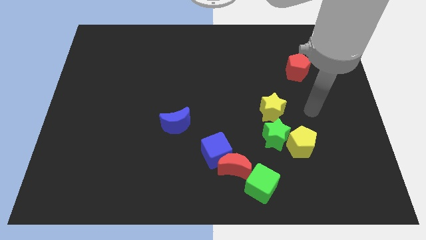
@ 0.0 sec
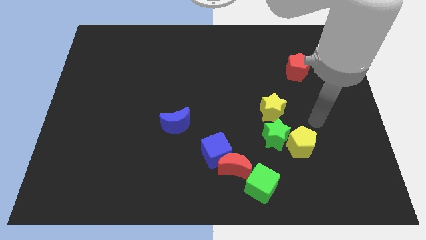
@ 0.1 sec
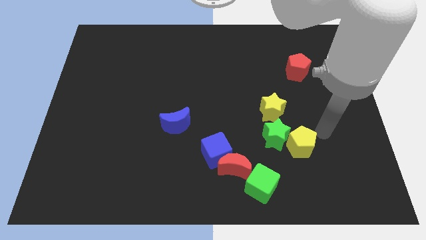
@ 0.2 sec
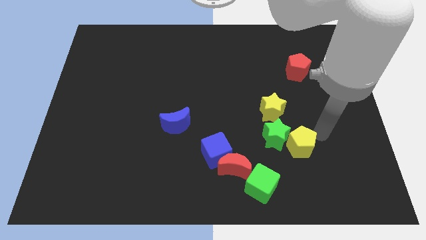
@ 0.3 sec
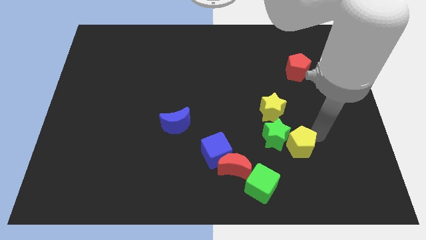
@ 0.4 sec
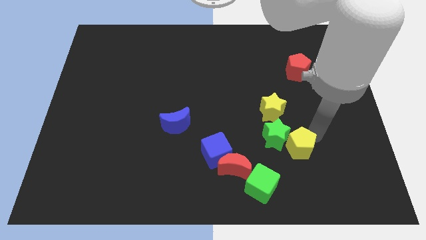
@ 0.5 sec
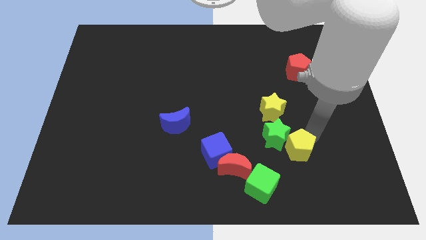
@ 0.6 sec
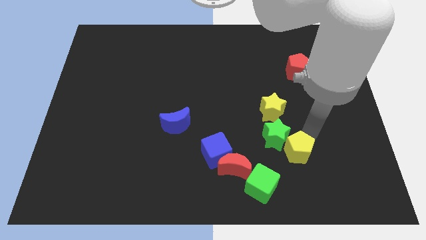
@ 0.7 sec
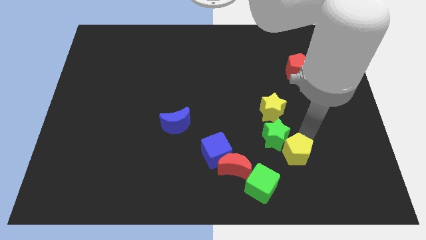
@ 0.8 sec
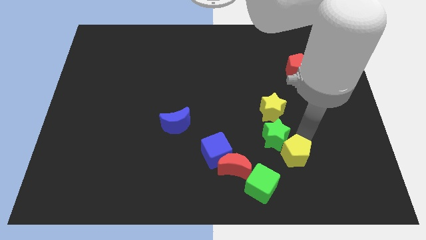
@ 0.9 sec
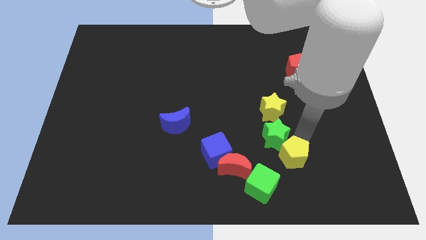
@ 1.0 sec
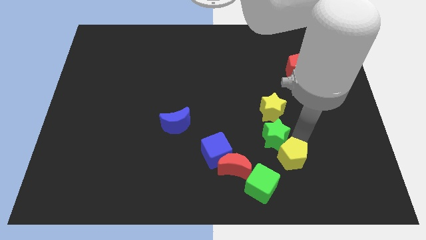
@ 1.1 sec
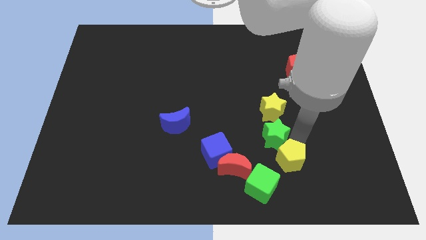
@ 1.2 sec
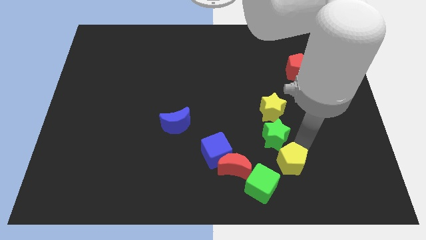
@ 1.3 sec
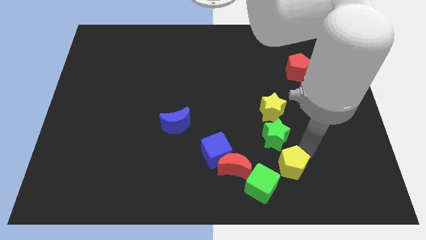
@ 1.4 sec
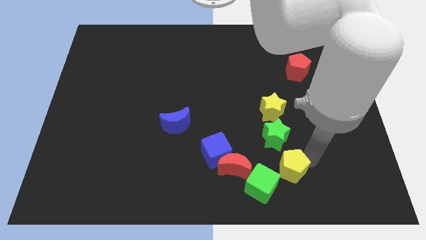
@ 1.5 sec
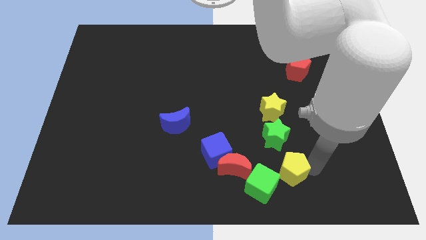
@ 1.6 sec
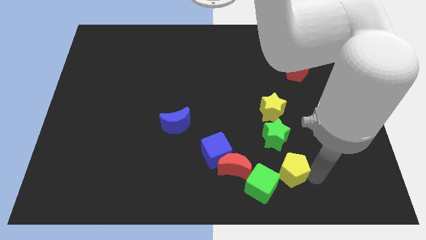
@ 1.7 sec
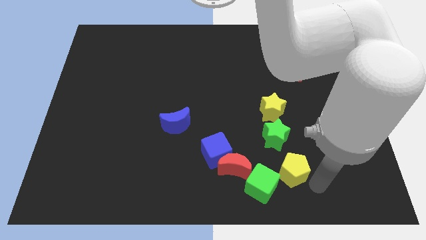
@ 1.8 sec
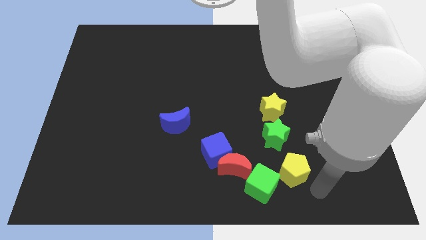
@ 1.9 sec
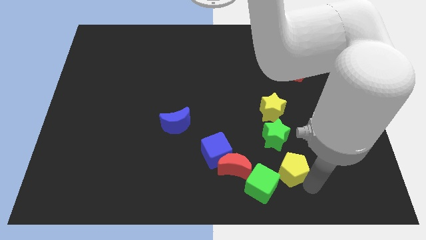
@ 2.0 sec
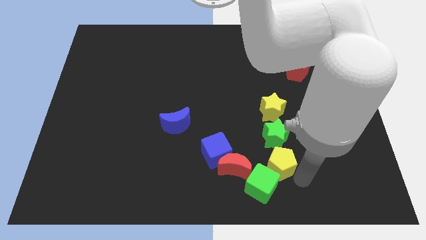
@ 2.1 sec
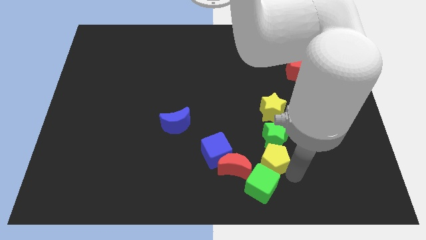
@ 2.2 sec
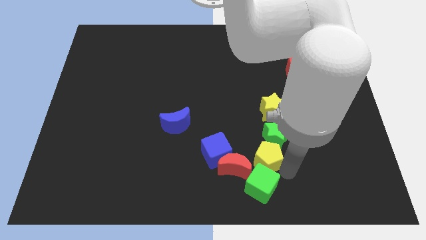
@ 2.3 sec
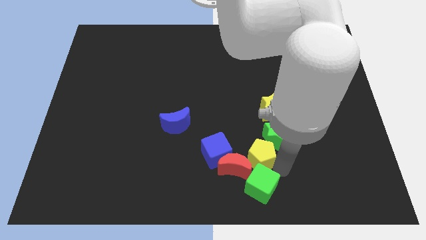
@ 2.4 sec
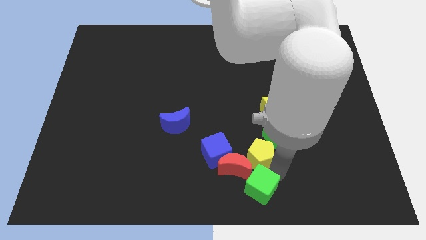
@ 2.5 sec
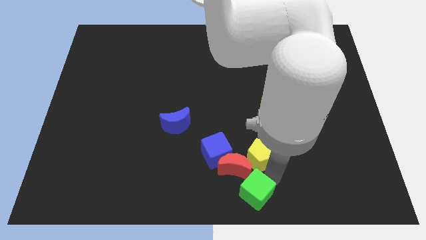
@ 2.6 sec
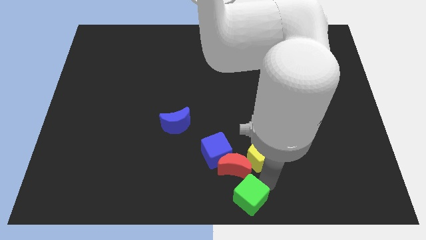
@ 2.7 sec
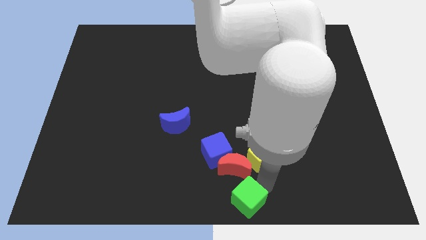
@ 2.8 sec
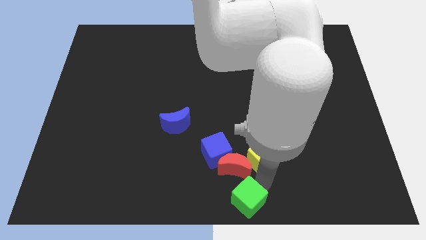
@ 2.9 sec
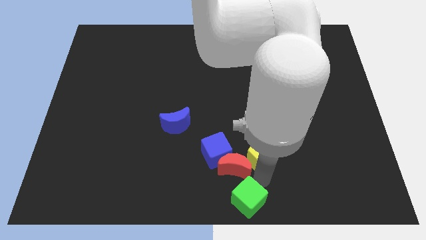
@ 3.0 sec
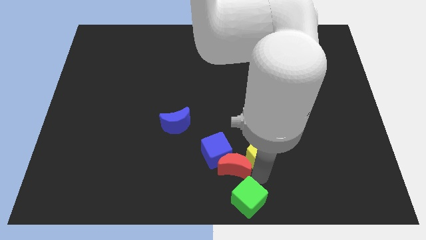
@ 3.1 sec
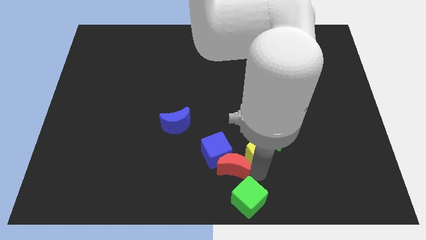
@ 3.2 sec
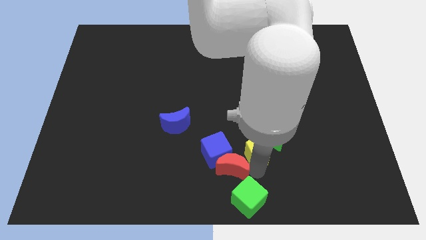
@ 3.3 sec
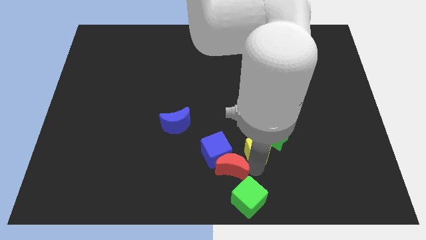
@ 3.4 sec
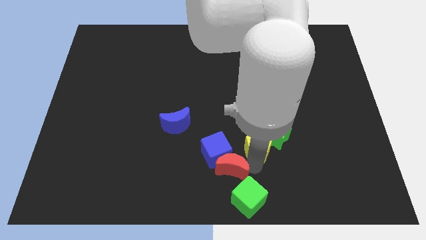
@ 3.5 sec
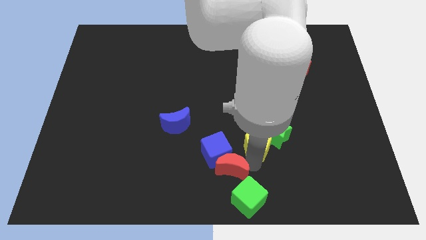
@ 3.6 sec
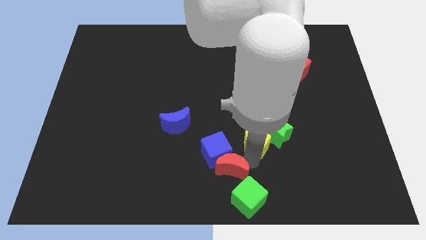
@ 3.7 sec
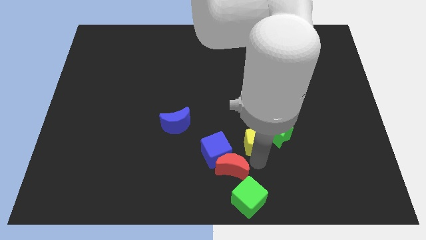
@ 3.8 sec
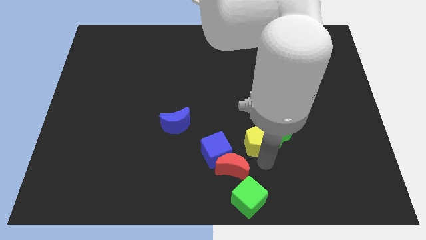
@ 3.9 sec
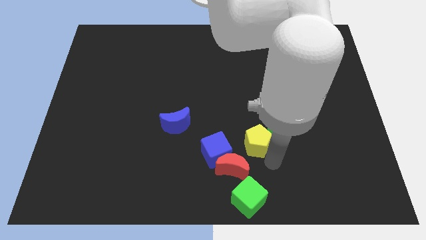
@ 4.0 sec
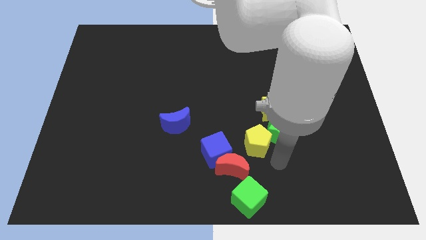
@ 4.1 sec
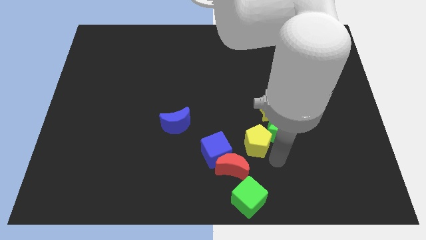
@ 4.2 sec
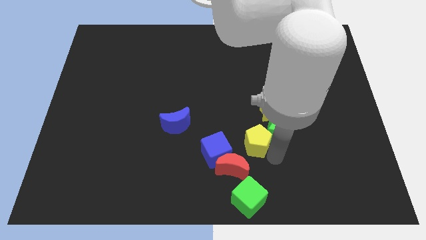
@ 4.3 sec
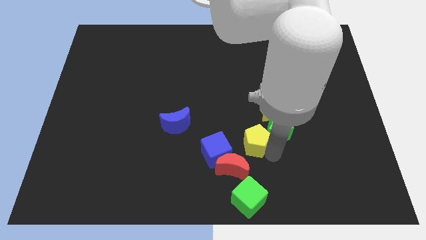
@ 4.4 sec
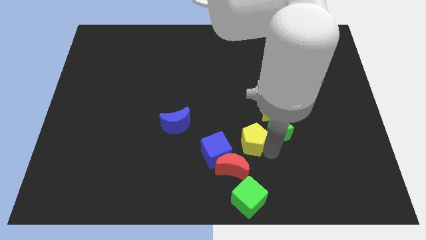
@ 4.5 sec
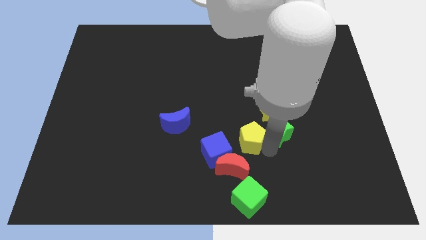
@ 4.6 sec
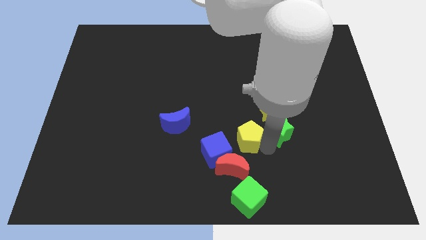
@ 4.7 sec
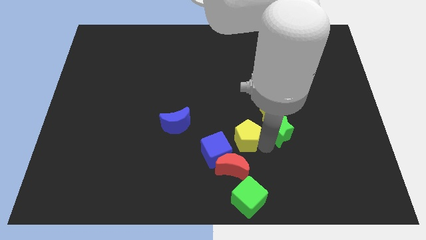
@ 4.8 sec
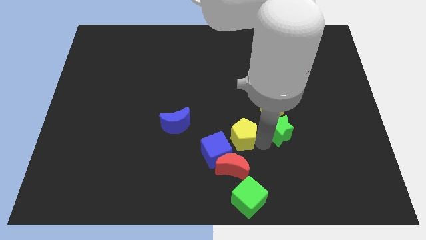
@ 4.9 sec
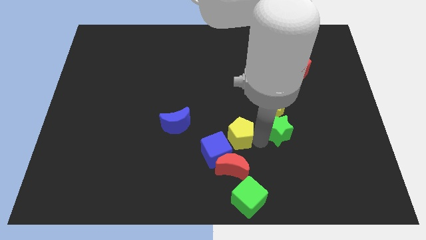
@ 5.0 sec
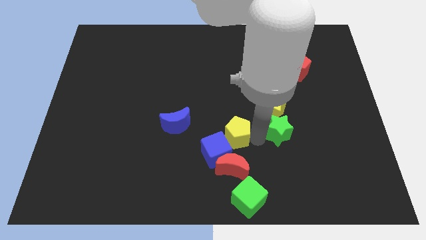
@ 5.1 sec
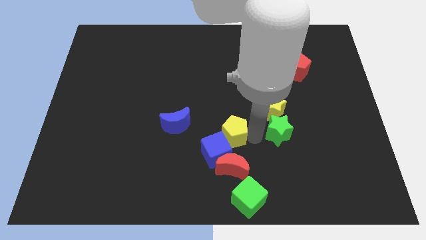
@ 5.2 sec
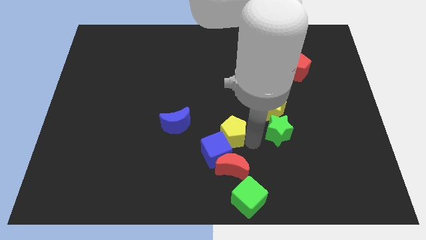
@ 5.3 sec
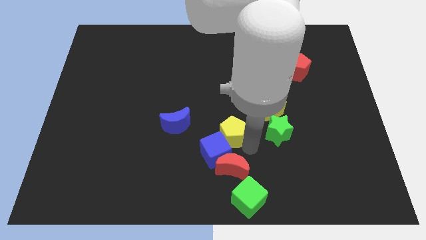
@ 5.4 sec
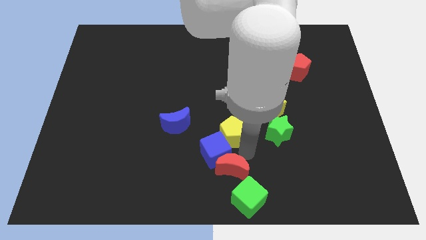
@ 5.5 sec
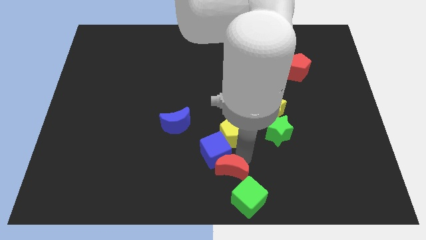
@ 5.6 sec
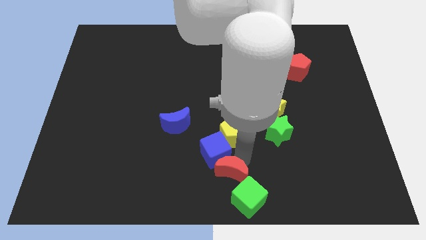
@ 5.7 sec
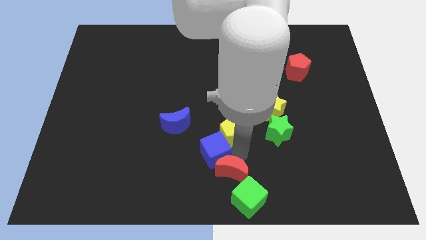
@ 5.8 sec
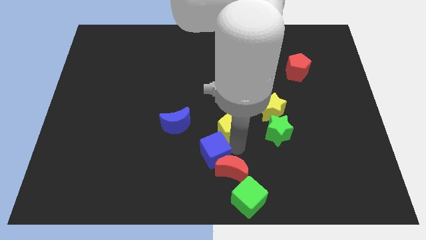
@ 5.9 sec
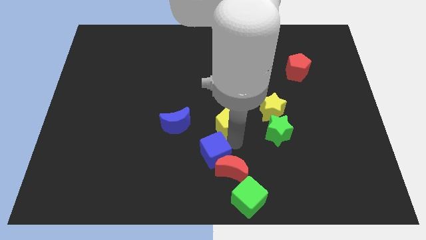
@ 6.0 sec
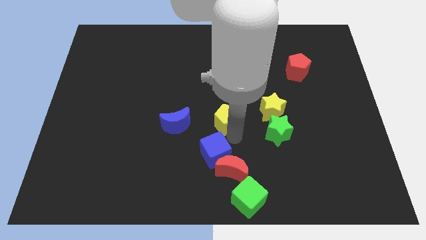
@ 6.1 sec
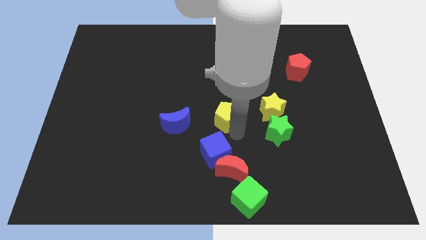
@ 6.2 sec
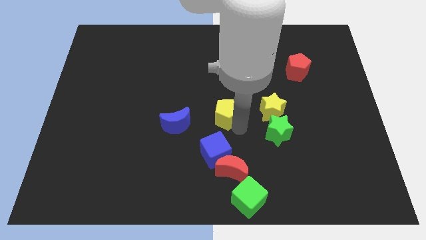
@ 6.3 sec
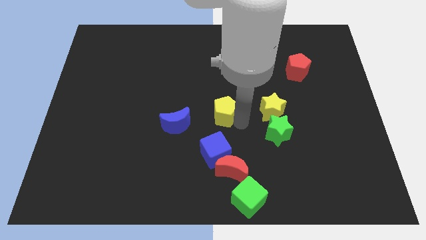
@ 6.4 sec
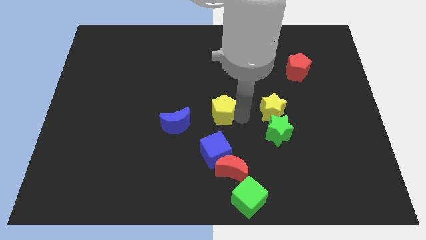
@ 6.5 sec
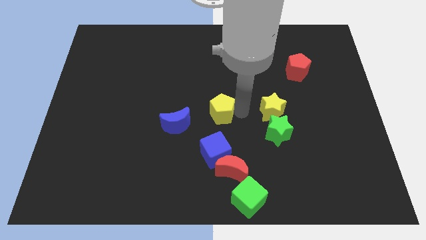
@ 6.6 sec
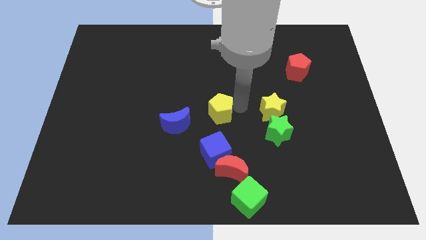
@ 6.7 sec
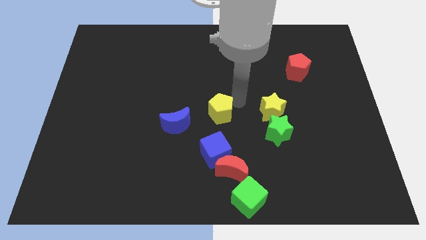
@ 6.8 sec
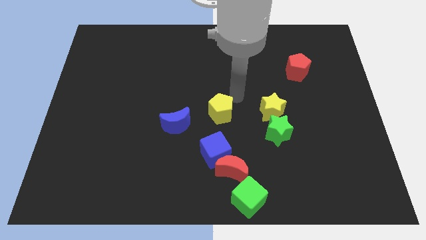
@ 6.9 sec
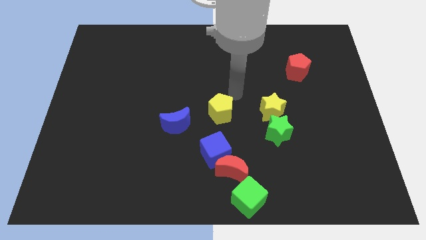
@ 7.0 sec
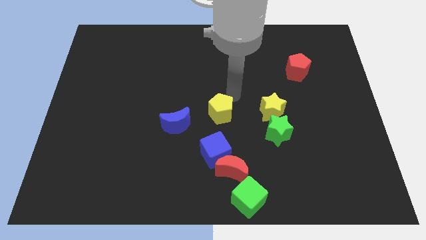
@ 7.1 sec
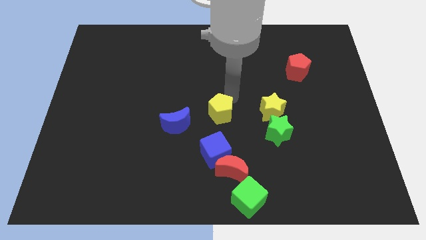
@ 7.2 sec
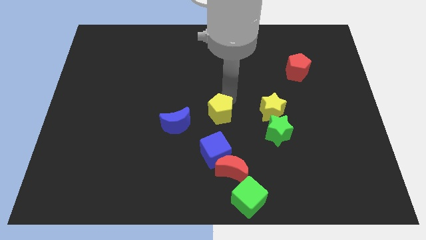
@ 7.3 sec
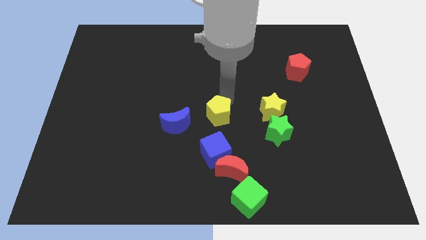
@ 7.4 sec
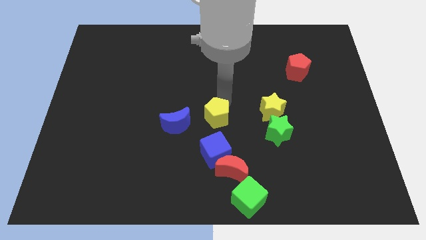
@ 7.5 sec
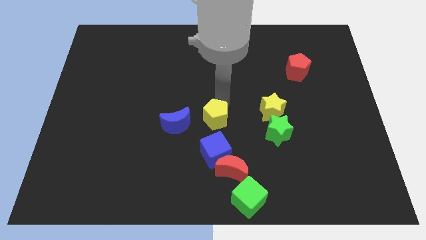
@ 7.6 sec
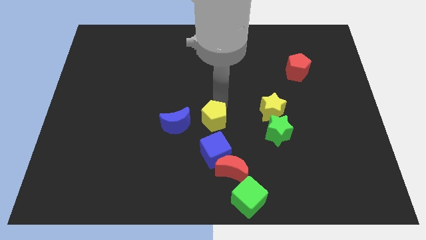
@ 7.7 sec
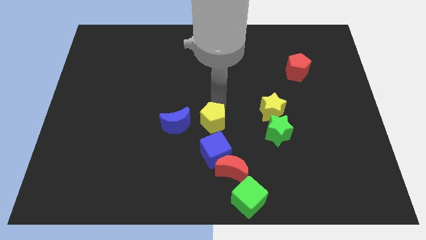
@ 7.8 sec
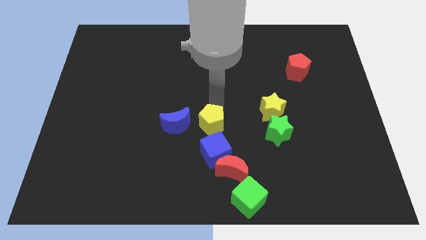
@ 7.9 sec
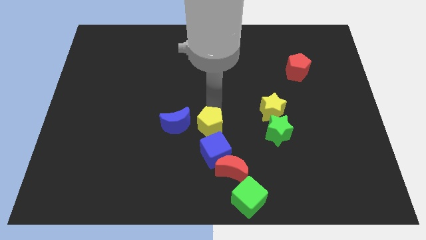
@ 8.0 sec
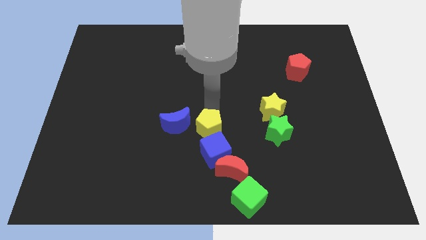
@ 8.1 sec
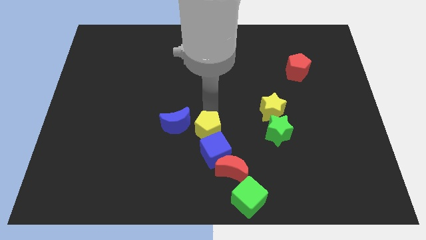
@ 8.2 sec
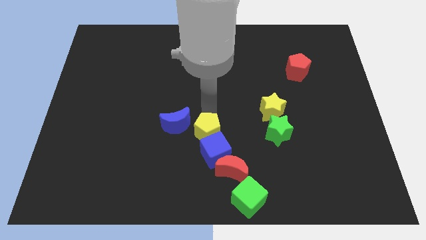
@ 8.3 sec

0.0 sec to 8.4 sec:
move the yellow pentagon left
